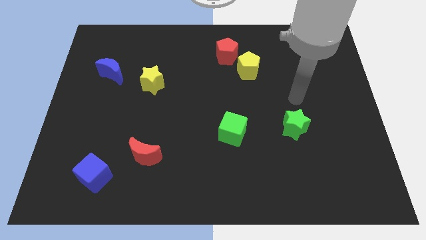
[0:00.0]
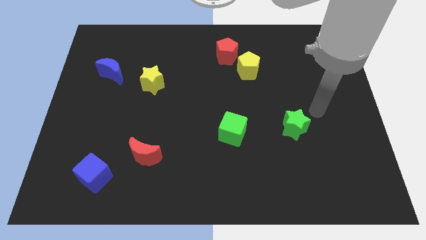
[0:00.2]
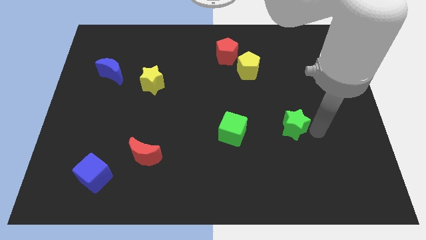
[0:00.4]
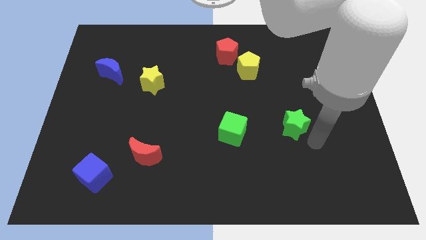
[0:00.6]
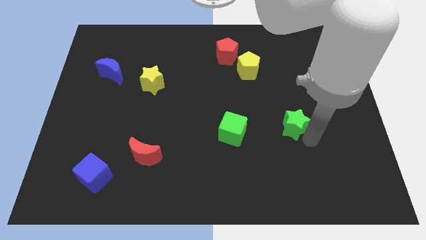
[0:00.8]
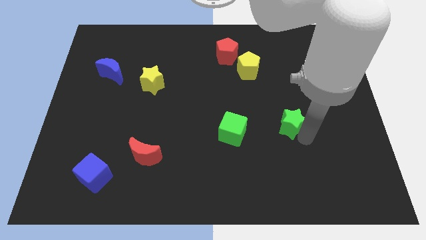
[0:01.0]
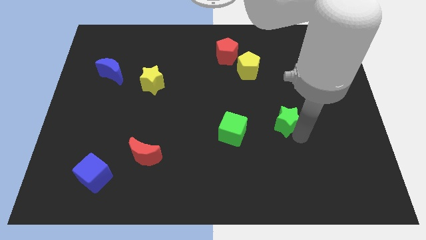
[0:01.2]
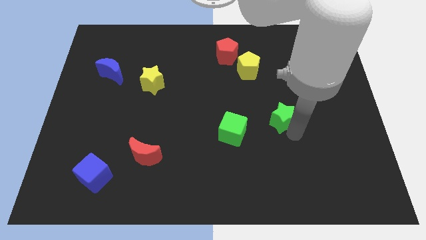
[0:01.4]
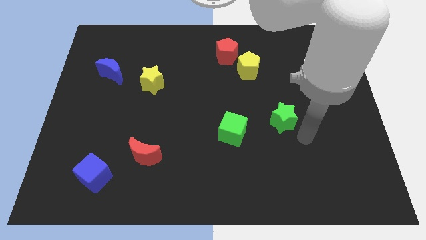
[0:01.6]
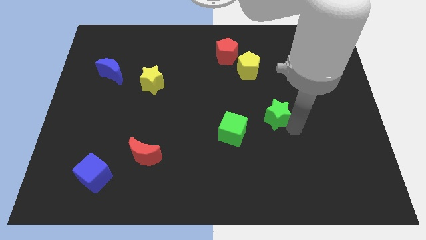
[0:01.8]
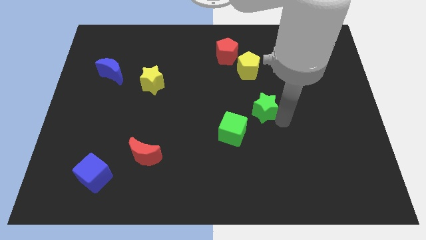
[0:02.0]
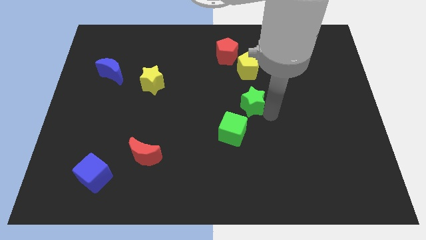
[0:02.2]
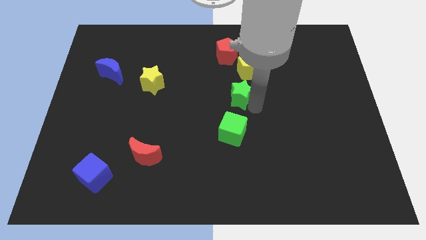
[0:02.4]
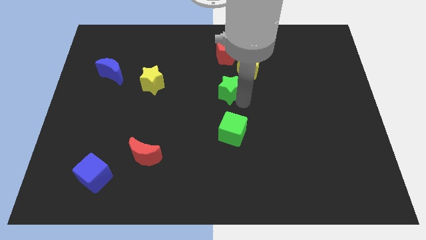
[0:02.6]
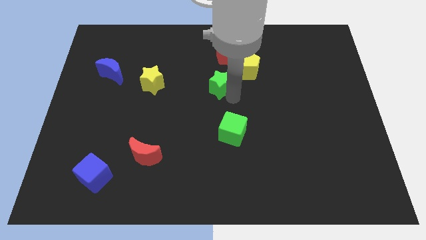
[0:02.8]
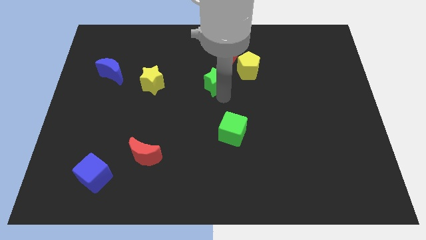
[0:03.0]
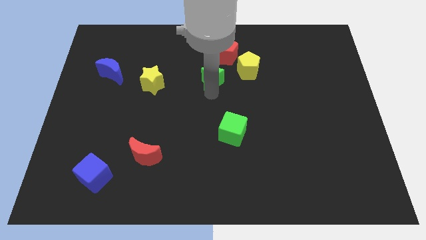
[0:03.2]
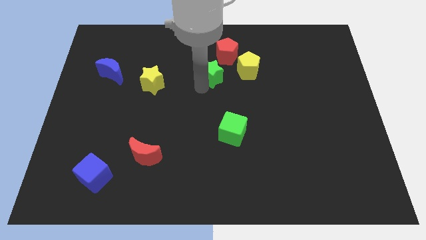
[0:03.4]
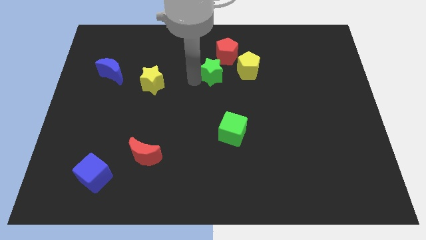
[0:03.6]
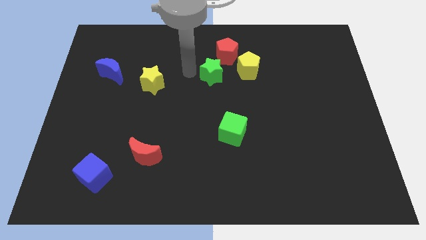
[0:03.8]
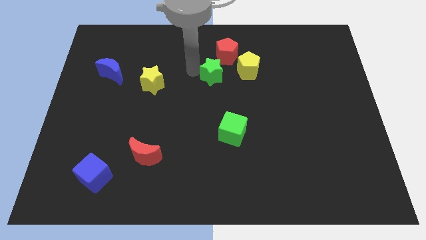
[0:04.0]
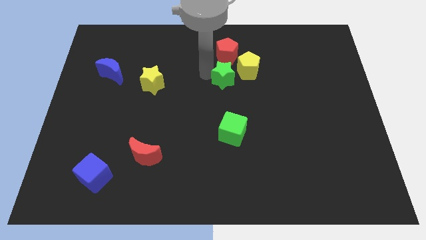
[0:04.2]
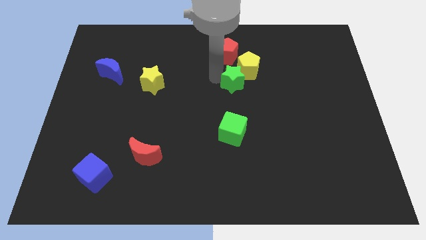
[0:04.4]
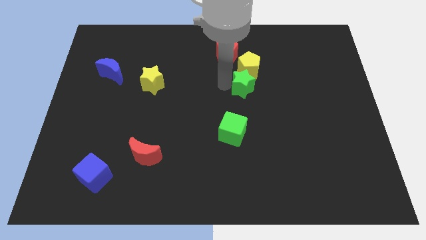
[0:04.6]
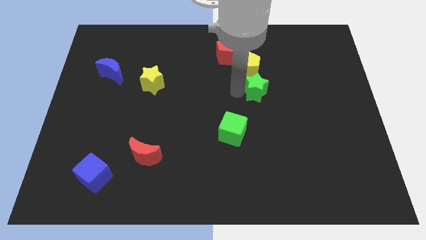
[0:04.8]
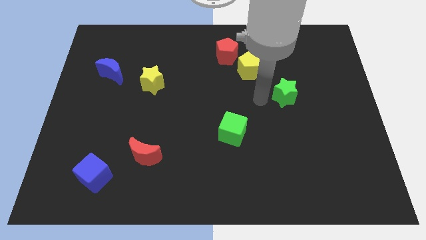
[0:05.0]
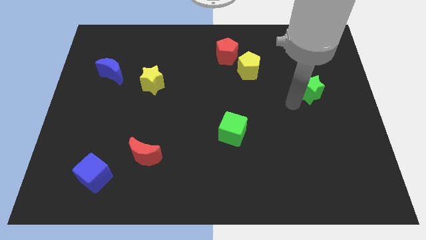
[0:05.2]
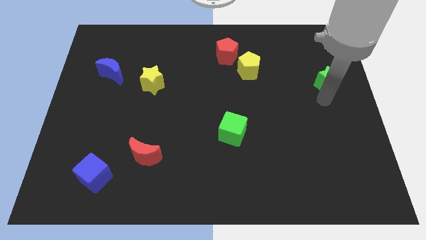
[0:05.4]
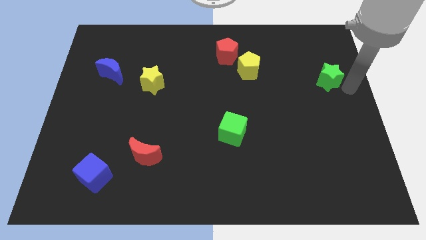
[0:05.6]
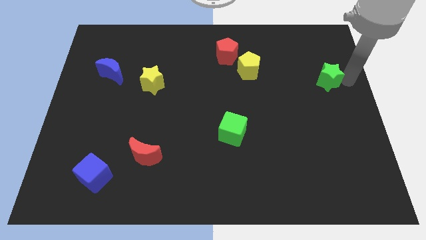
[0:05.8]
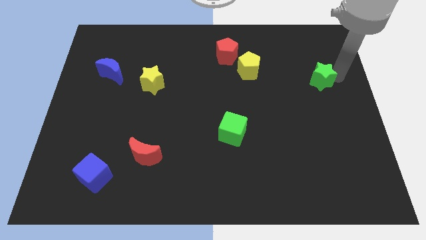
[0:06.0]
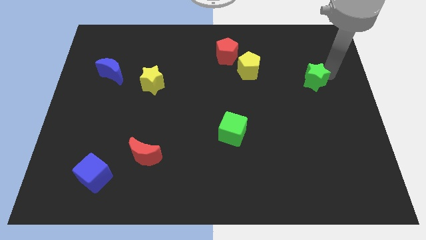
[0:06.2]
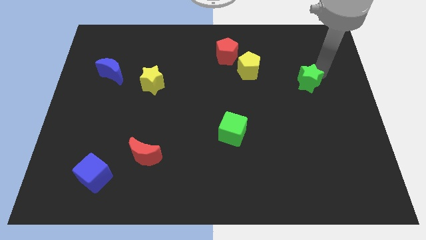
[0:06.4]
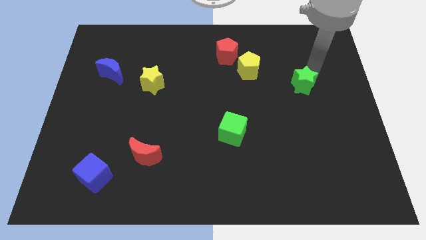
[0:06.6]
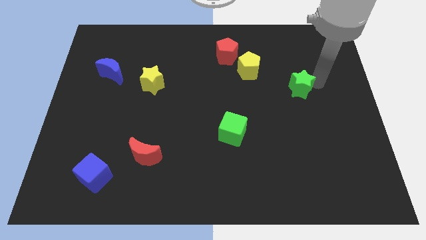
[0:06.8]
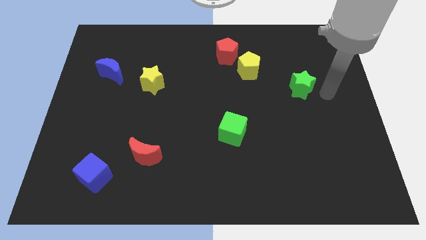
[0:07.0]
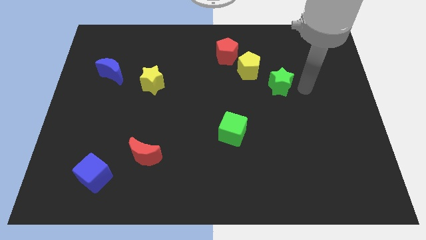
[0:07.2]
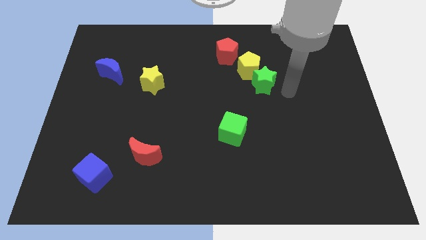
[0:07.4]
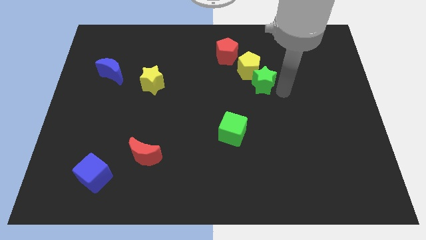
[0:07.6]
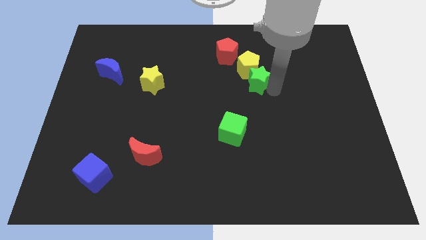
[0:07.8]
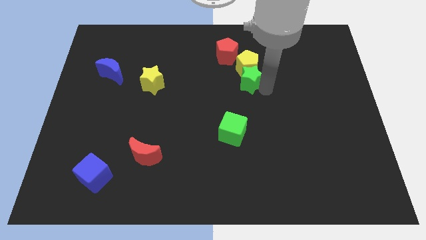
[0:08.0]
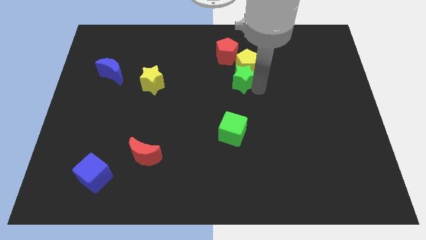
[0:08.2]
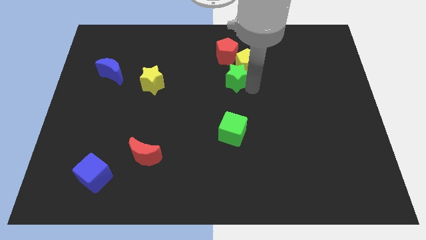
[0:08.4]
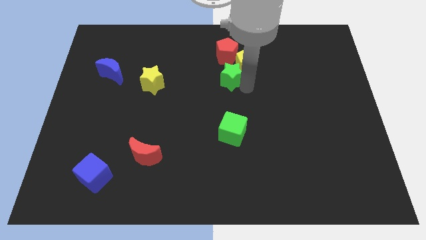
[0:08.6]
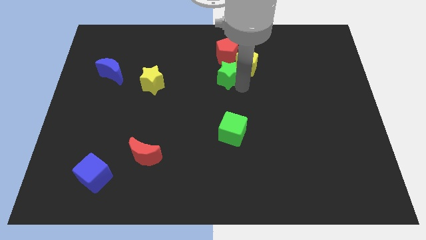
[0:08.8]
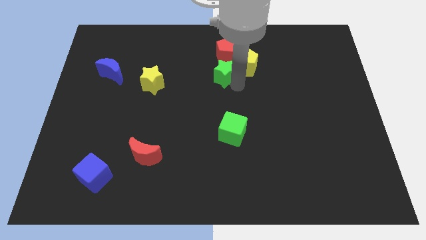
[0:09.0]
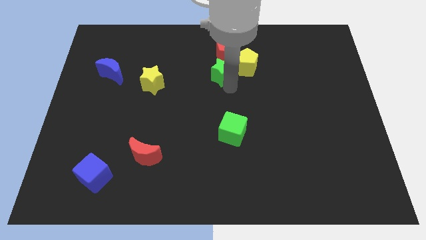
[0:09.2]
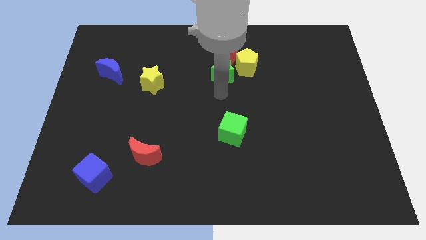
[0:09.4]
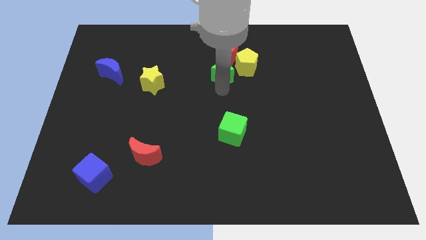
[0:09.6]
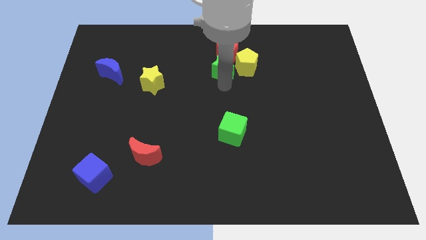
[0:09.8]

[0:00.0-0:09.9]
move the green star next to the red pentagon

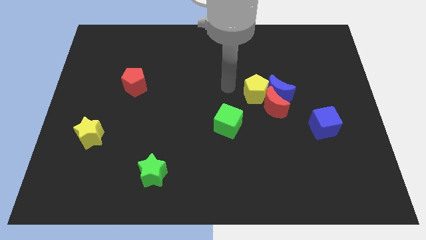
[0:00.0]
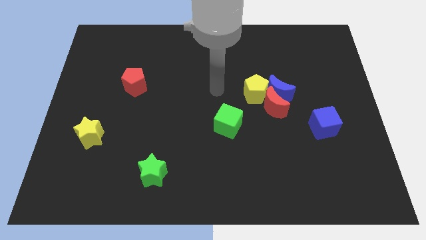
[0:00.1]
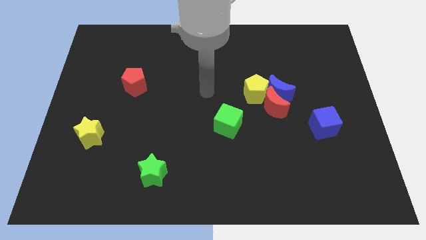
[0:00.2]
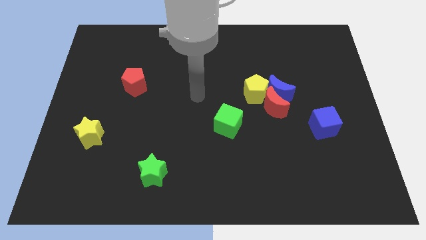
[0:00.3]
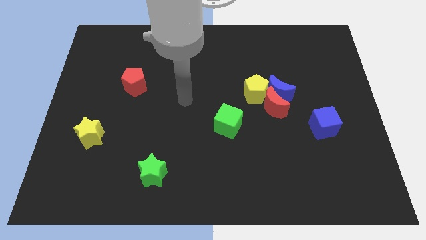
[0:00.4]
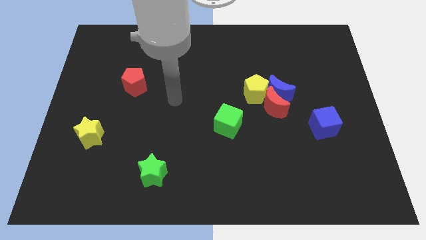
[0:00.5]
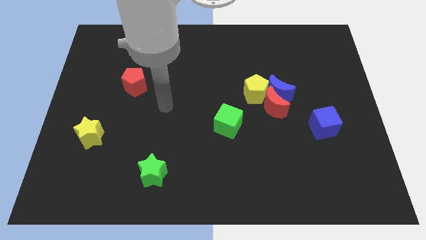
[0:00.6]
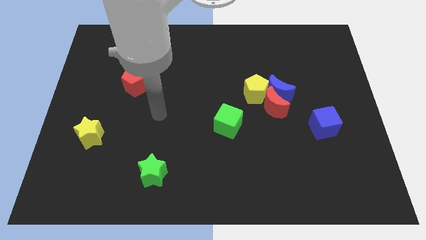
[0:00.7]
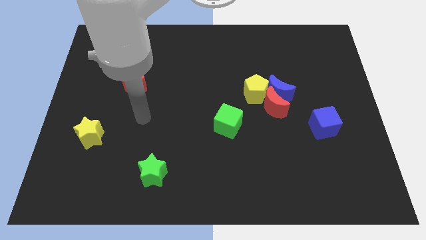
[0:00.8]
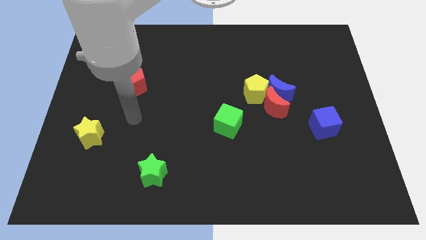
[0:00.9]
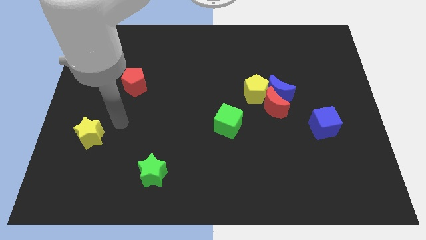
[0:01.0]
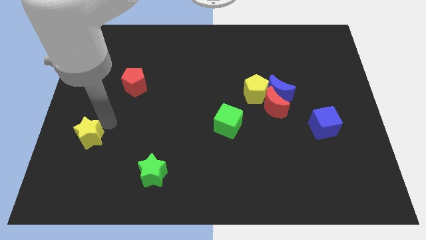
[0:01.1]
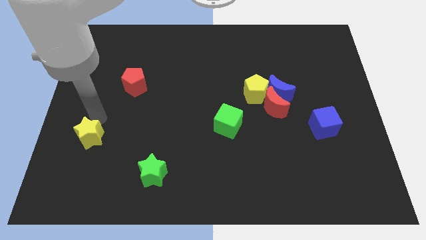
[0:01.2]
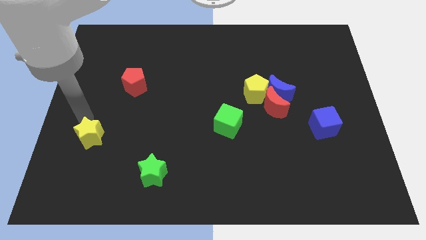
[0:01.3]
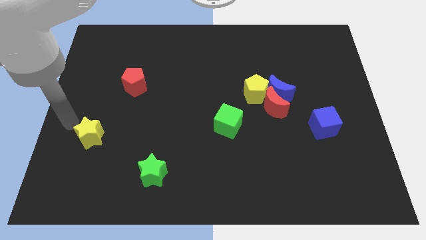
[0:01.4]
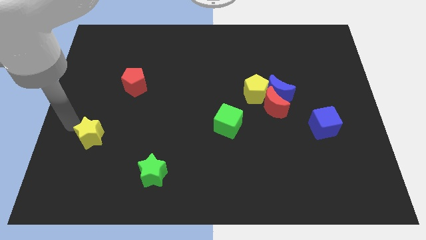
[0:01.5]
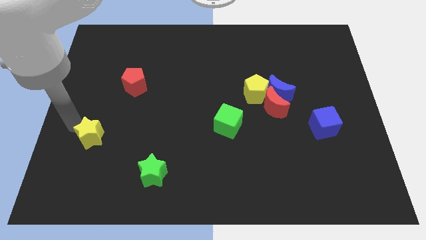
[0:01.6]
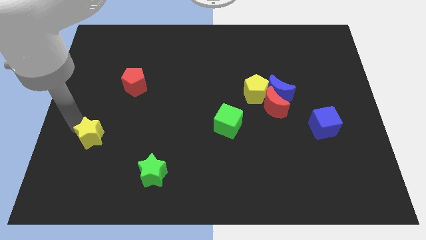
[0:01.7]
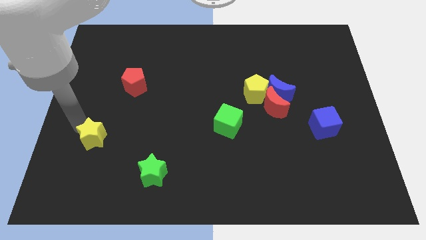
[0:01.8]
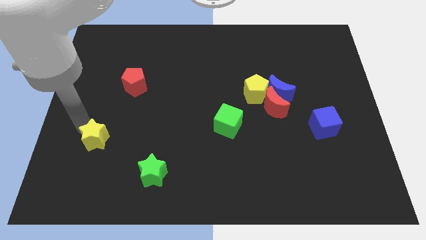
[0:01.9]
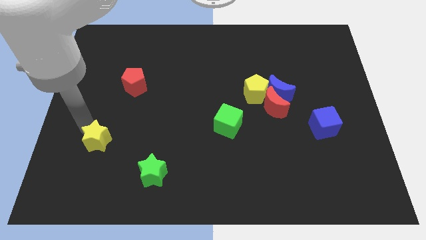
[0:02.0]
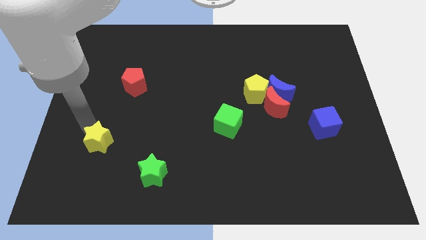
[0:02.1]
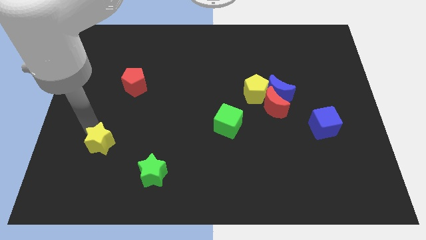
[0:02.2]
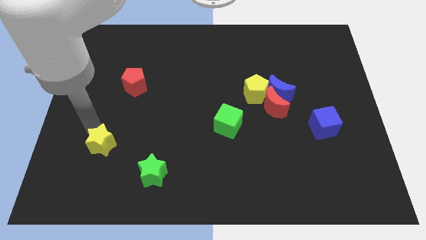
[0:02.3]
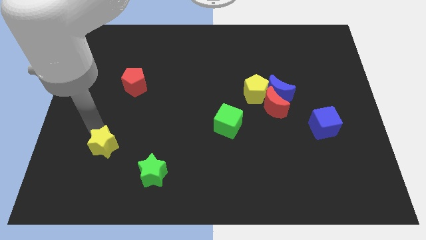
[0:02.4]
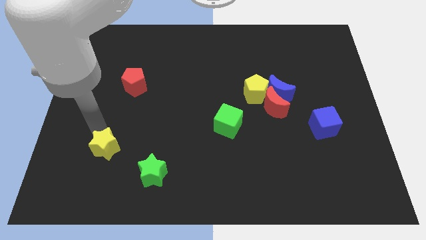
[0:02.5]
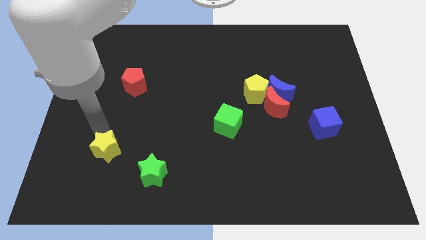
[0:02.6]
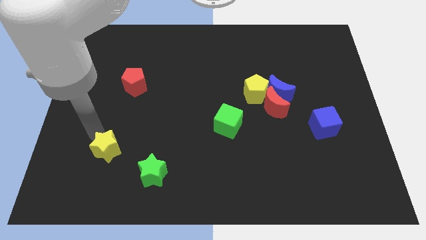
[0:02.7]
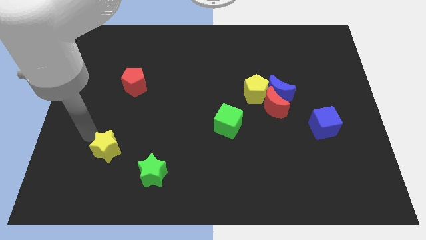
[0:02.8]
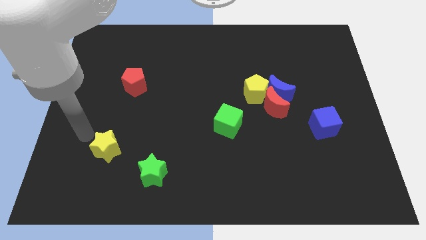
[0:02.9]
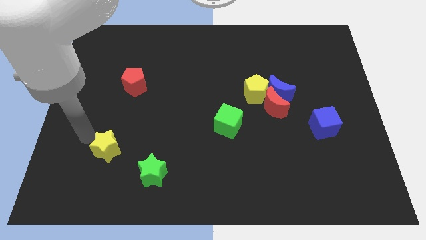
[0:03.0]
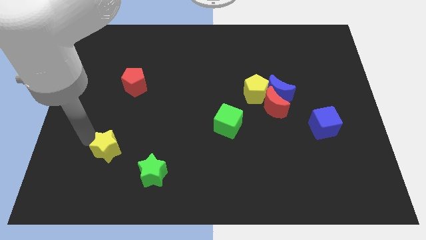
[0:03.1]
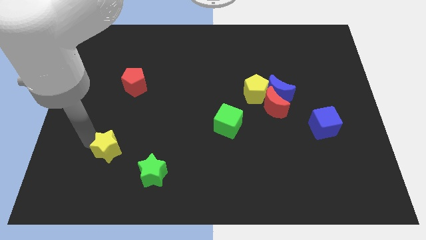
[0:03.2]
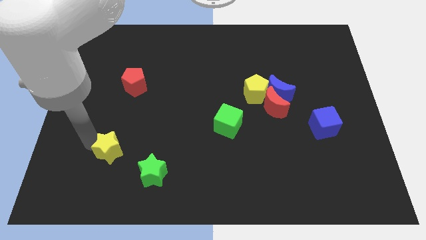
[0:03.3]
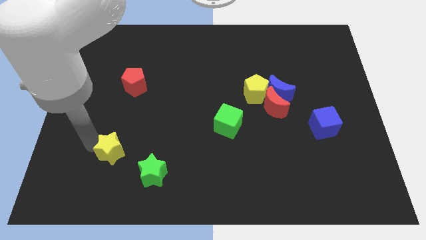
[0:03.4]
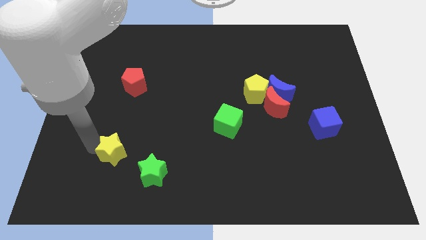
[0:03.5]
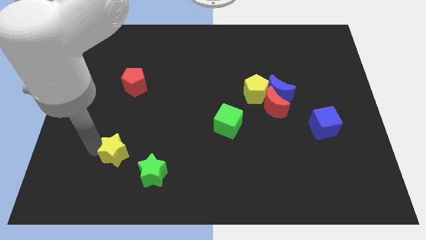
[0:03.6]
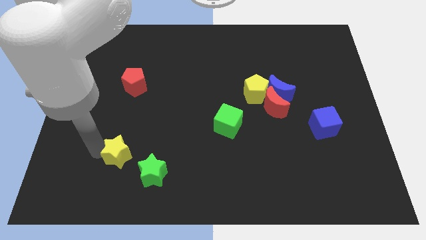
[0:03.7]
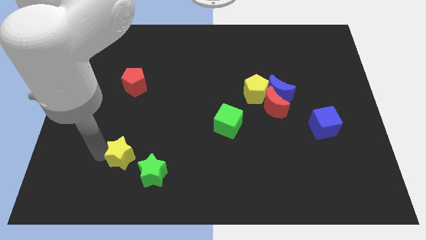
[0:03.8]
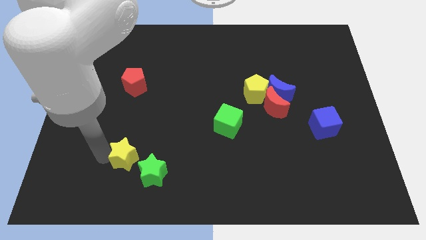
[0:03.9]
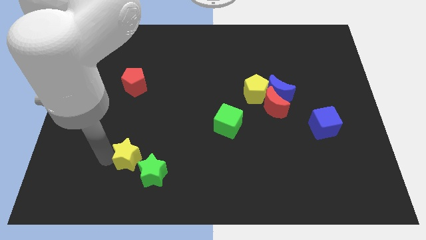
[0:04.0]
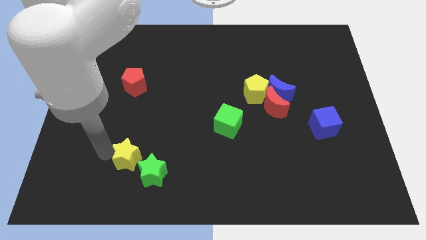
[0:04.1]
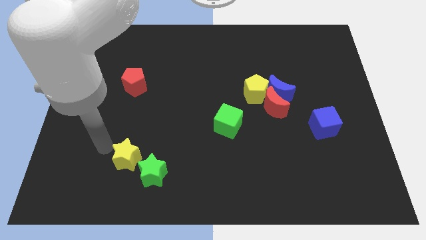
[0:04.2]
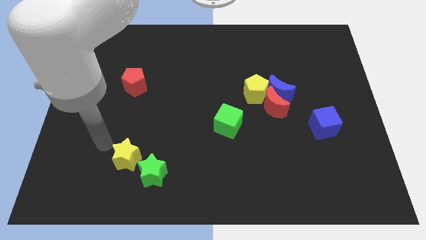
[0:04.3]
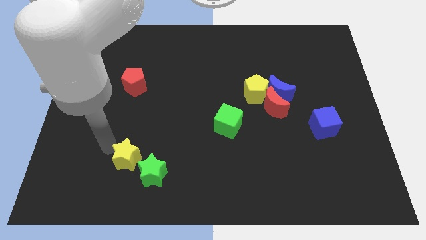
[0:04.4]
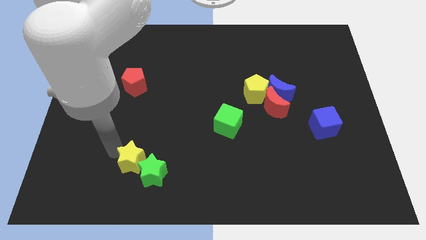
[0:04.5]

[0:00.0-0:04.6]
push the yellow star close to the green star
